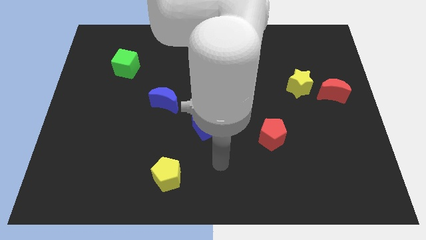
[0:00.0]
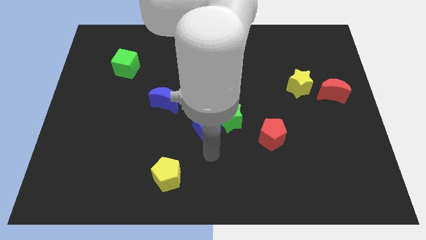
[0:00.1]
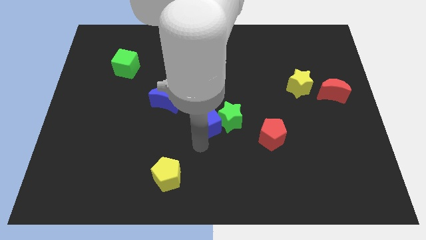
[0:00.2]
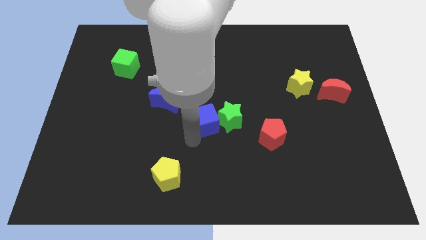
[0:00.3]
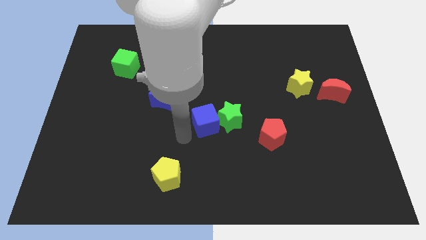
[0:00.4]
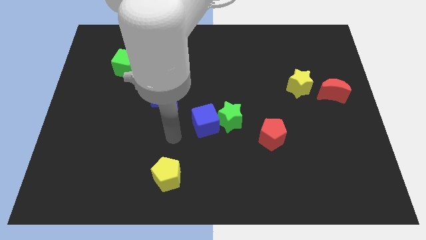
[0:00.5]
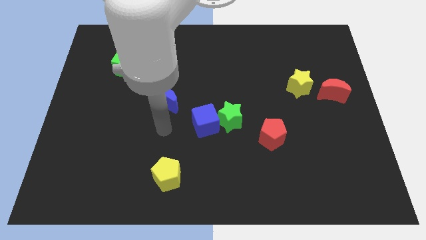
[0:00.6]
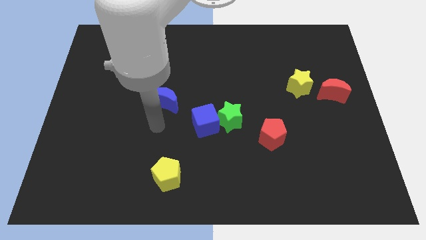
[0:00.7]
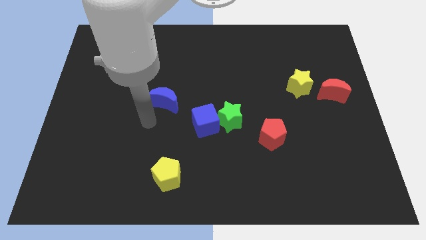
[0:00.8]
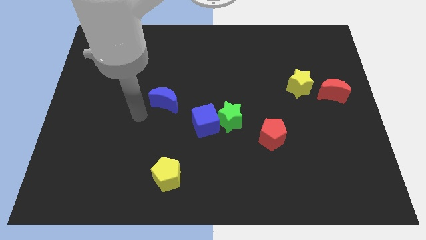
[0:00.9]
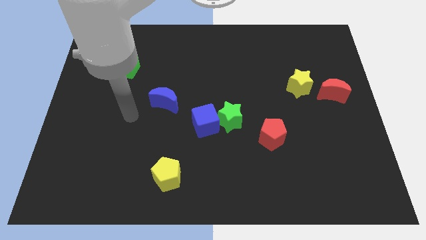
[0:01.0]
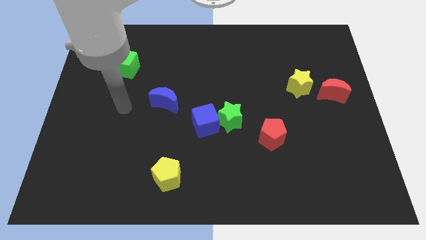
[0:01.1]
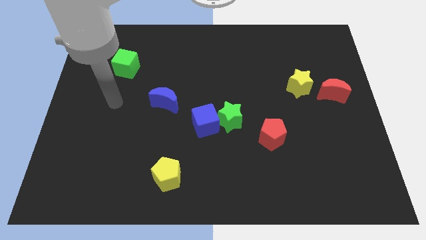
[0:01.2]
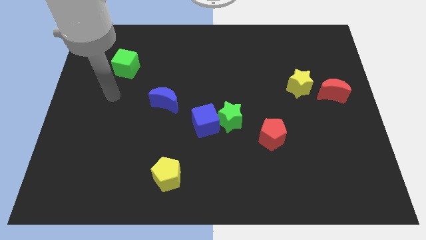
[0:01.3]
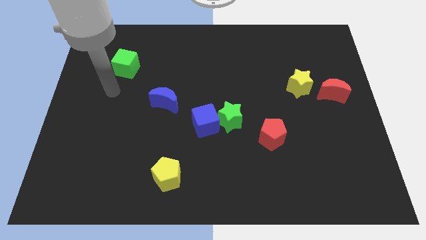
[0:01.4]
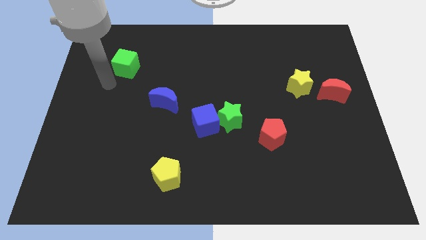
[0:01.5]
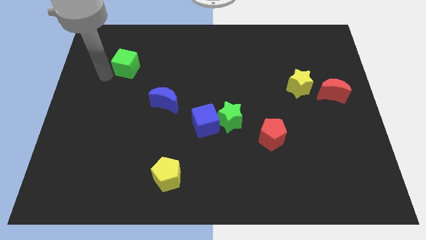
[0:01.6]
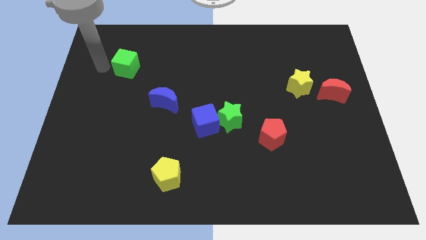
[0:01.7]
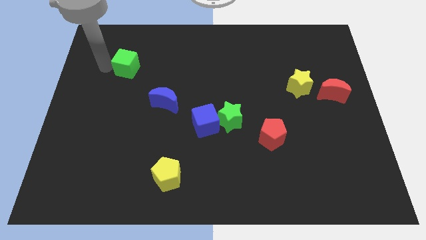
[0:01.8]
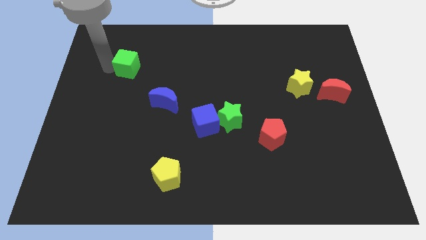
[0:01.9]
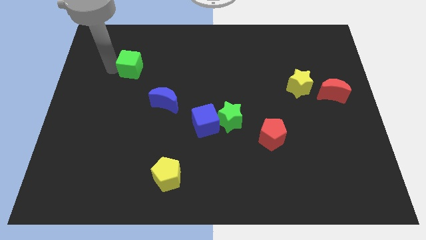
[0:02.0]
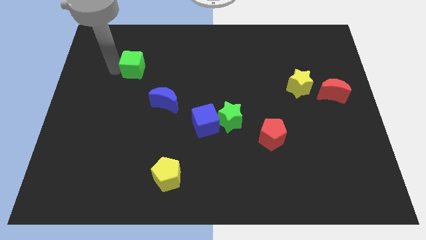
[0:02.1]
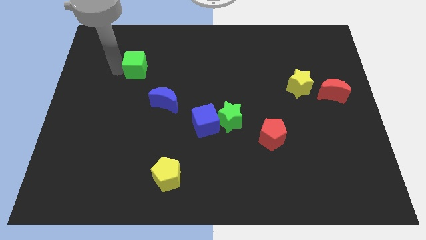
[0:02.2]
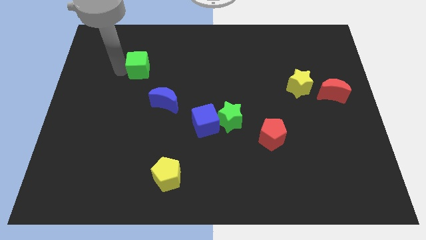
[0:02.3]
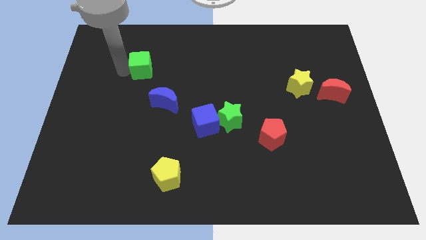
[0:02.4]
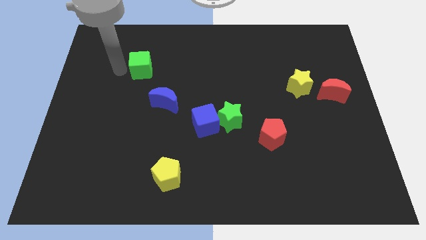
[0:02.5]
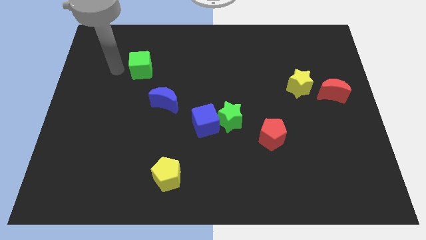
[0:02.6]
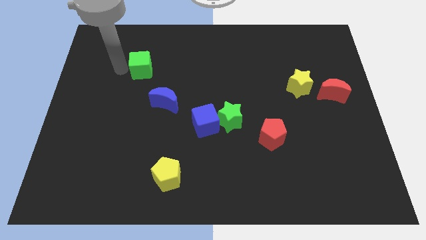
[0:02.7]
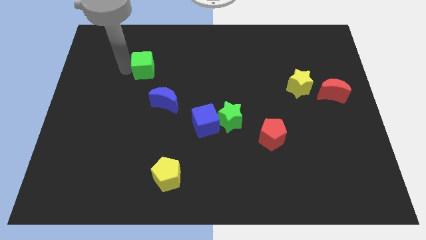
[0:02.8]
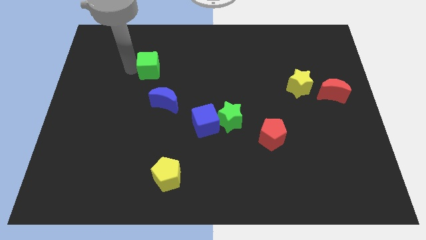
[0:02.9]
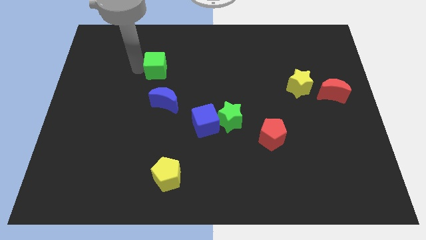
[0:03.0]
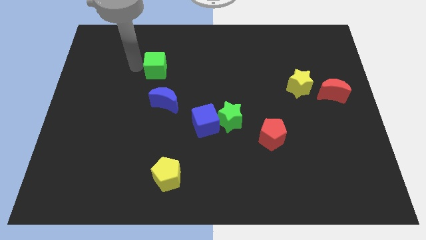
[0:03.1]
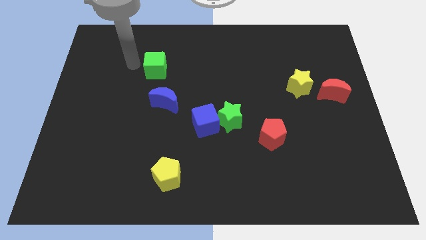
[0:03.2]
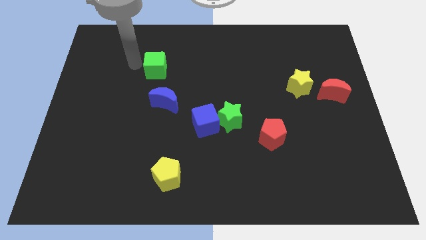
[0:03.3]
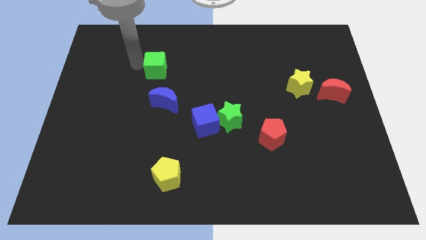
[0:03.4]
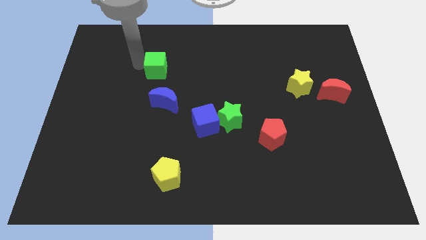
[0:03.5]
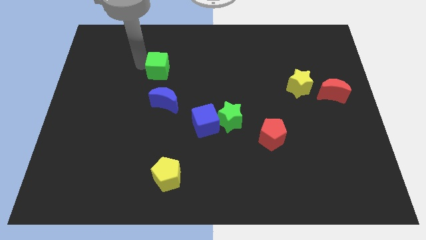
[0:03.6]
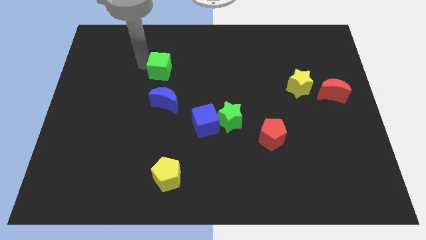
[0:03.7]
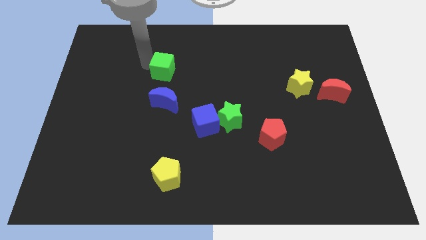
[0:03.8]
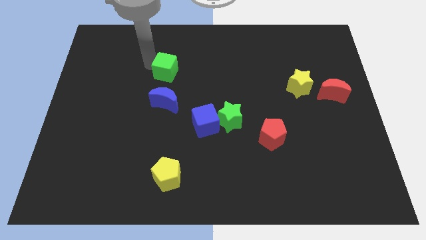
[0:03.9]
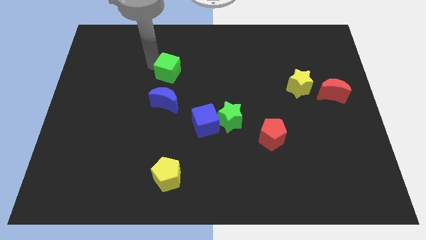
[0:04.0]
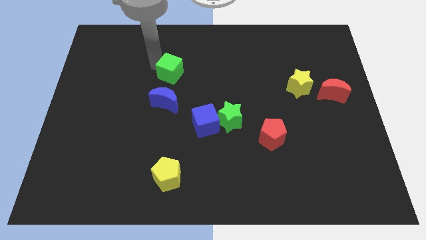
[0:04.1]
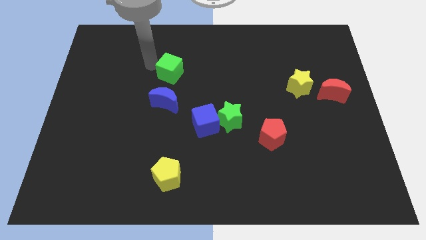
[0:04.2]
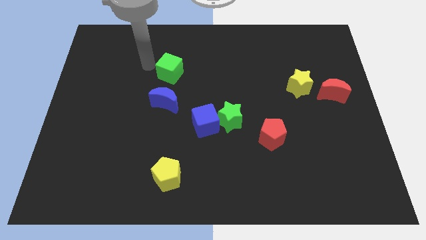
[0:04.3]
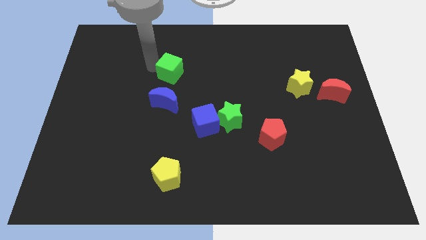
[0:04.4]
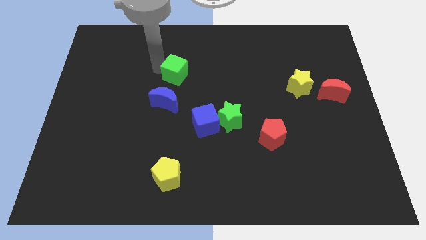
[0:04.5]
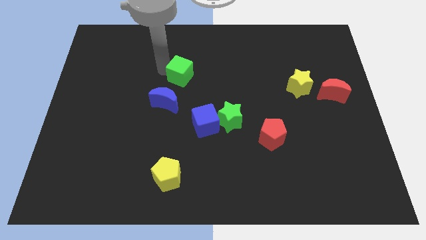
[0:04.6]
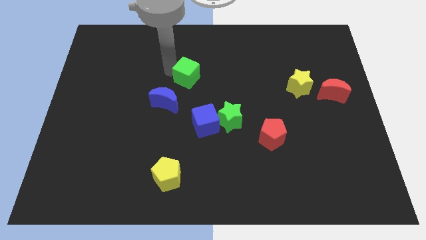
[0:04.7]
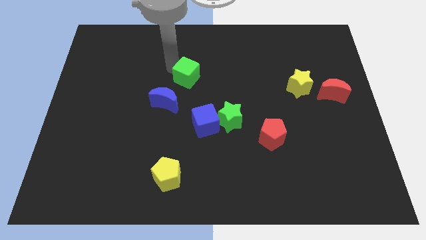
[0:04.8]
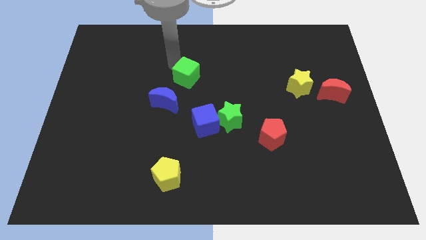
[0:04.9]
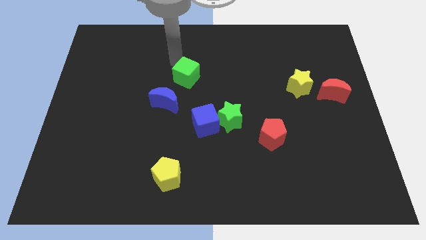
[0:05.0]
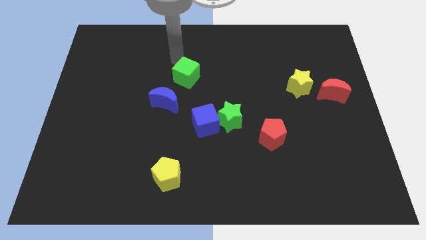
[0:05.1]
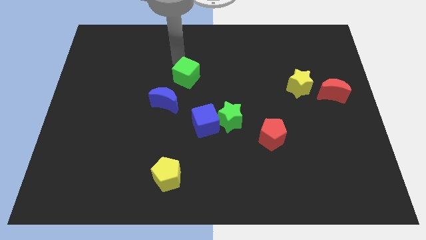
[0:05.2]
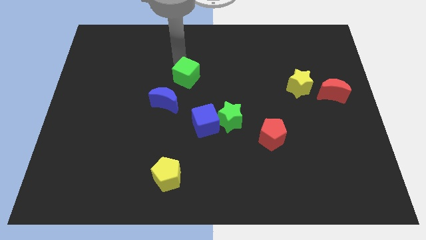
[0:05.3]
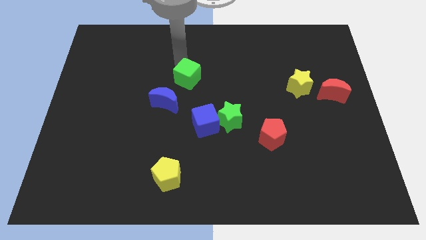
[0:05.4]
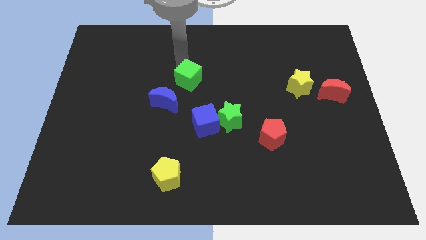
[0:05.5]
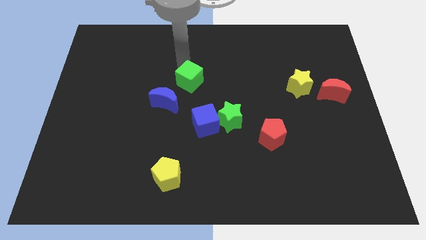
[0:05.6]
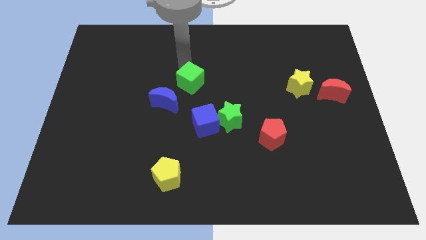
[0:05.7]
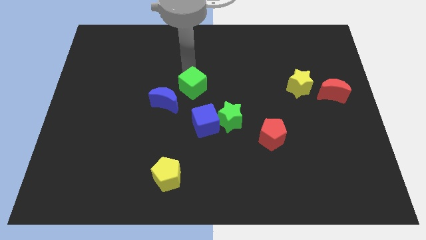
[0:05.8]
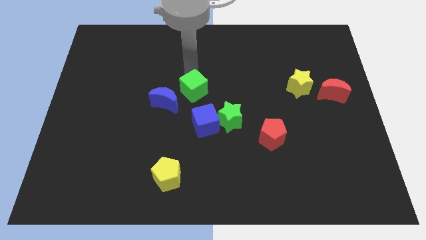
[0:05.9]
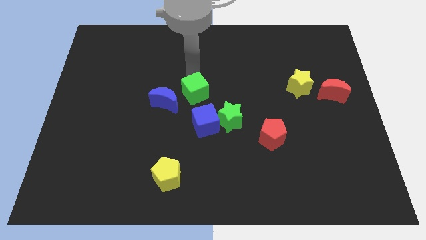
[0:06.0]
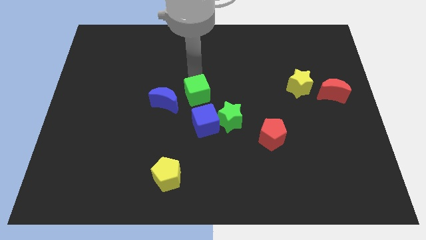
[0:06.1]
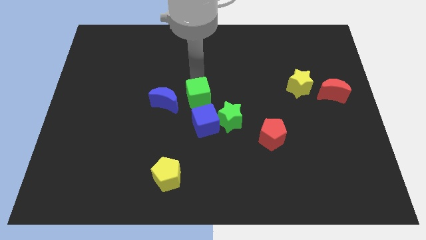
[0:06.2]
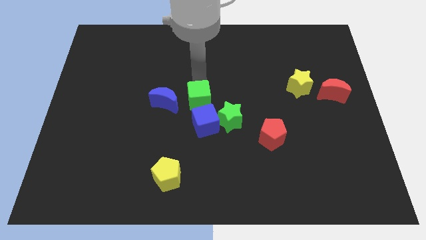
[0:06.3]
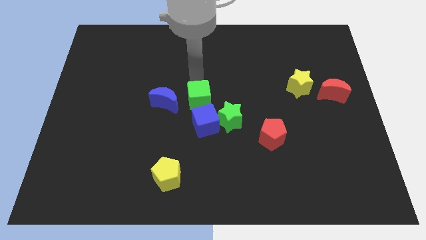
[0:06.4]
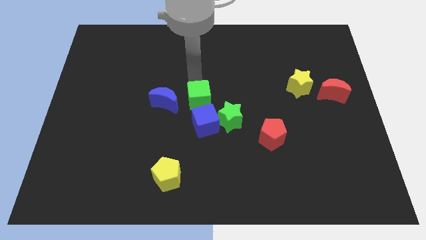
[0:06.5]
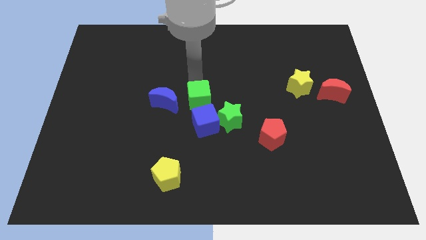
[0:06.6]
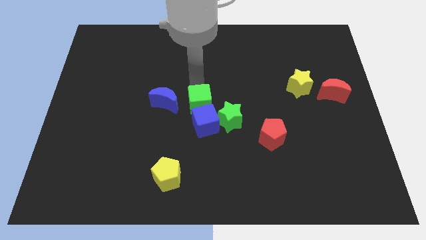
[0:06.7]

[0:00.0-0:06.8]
put the green cube towards the blue cube

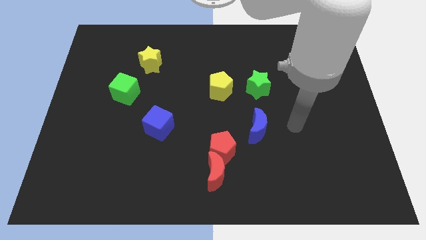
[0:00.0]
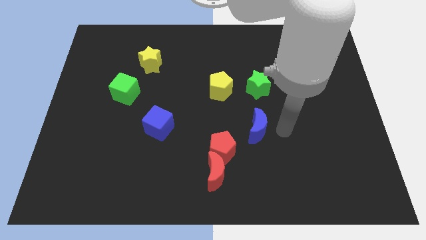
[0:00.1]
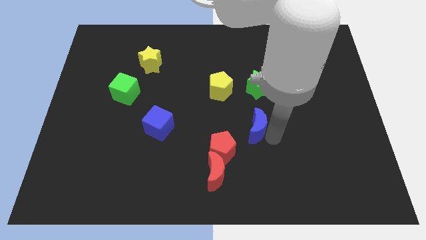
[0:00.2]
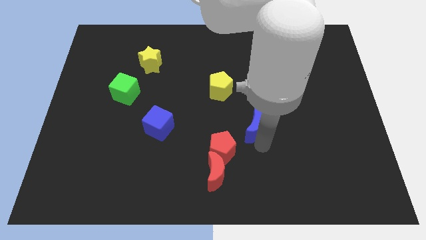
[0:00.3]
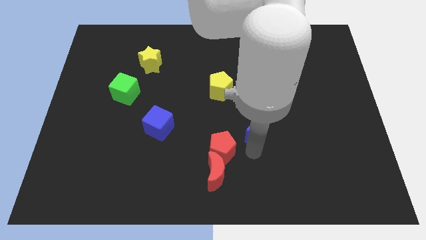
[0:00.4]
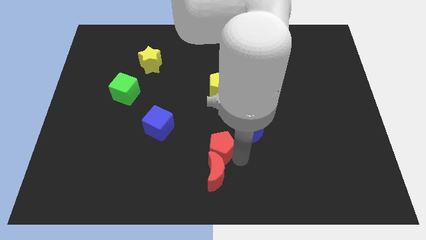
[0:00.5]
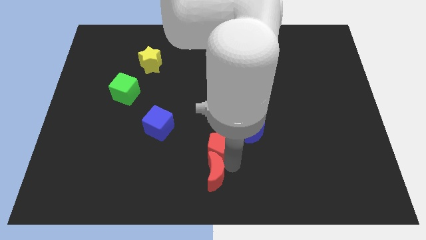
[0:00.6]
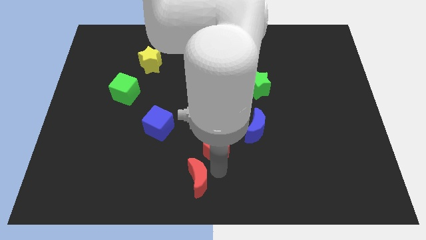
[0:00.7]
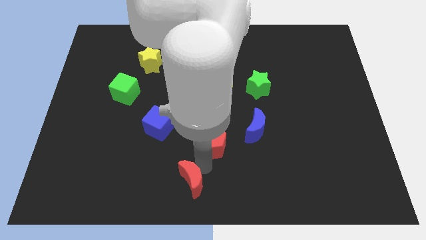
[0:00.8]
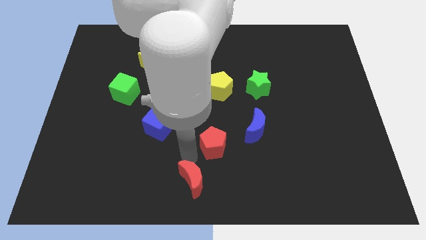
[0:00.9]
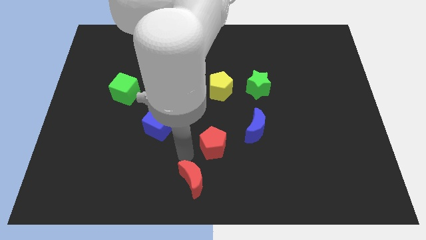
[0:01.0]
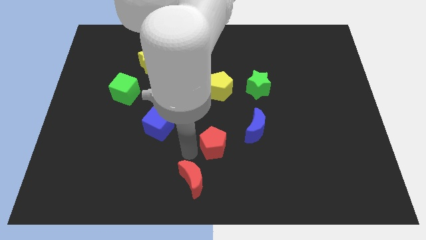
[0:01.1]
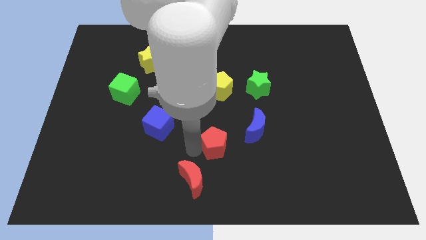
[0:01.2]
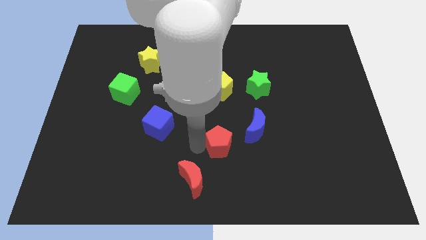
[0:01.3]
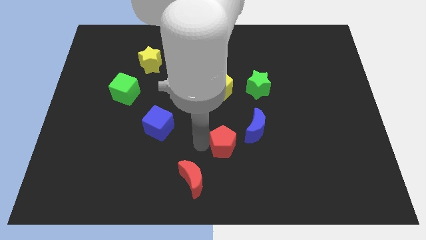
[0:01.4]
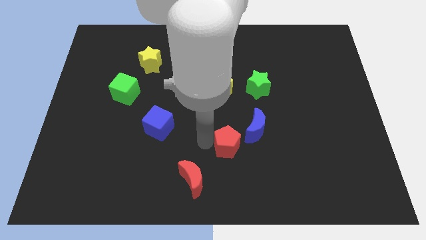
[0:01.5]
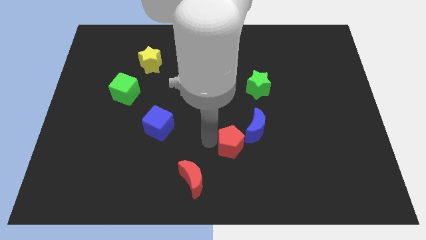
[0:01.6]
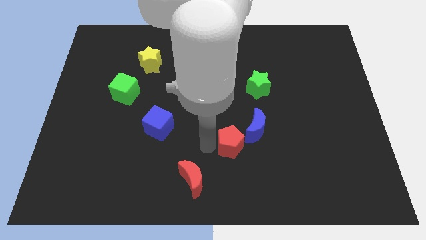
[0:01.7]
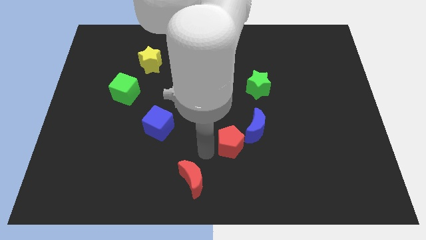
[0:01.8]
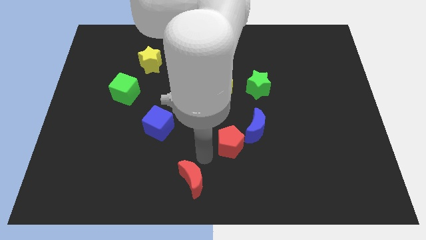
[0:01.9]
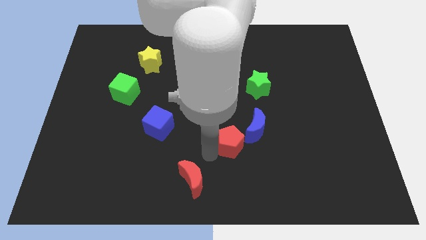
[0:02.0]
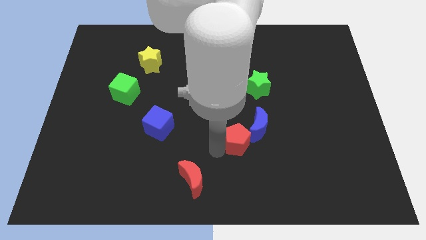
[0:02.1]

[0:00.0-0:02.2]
move the red pentagon towards the blue moon
